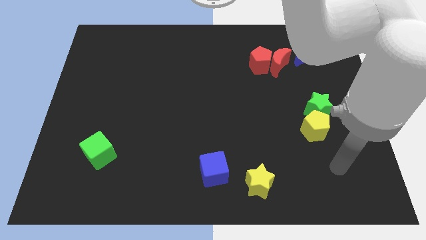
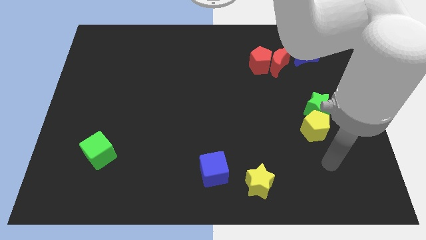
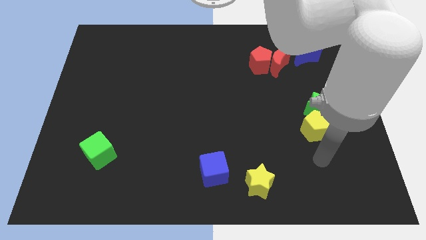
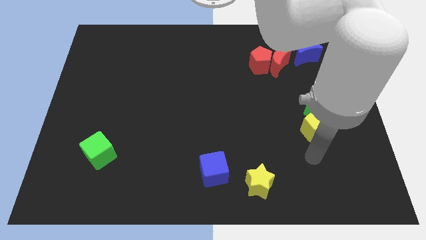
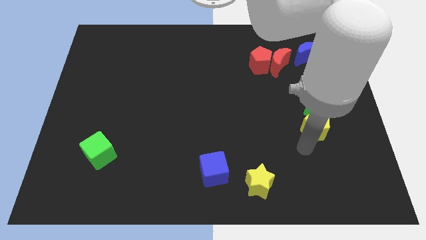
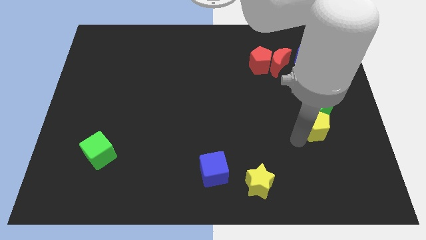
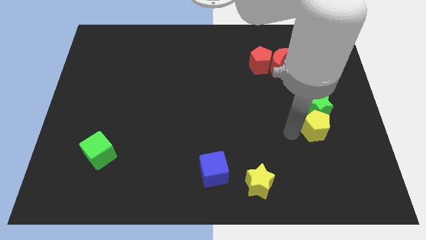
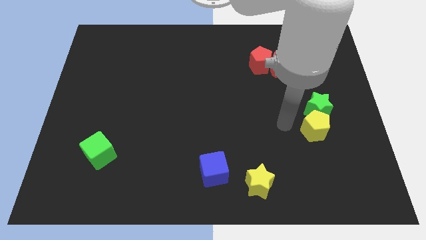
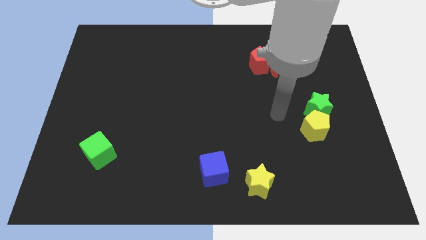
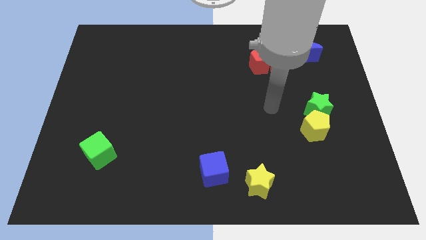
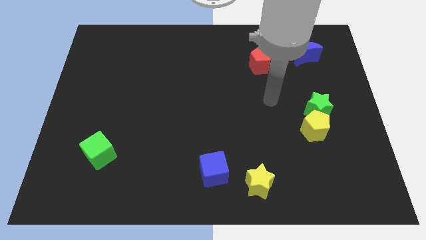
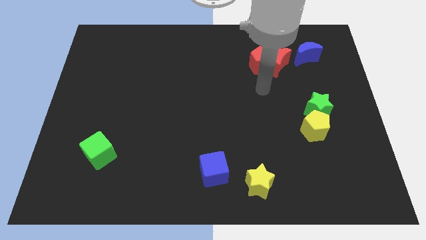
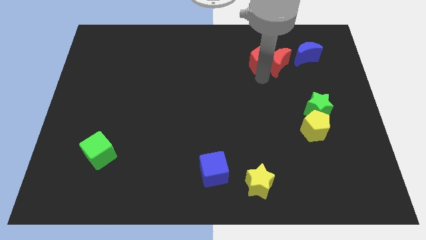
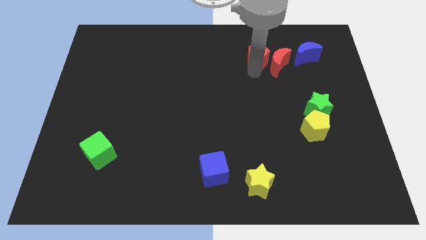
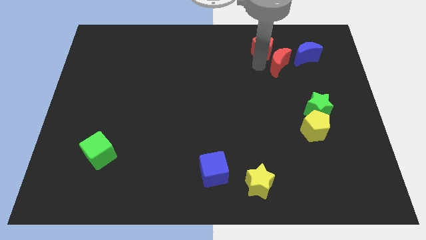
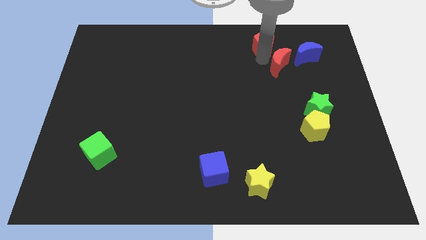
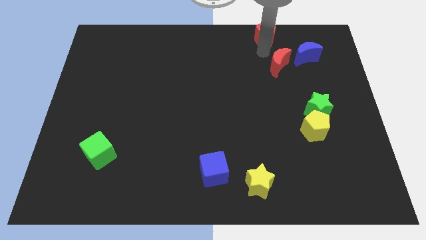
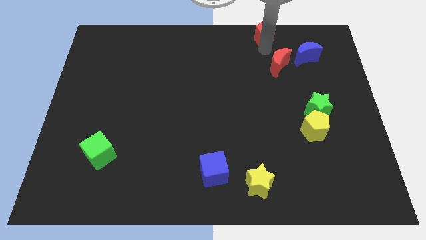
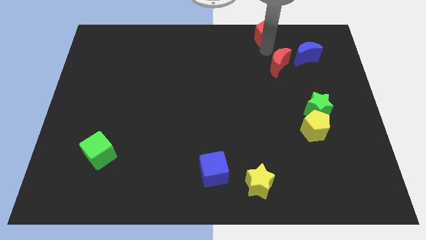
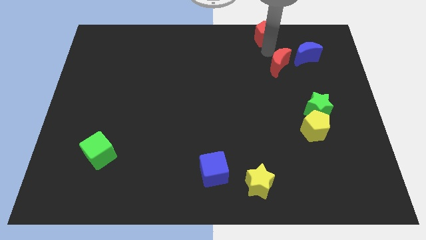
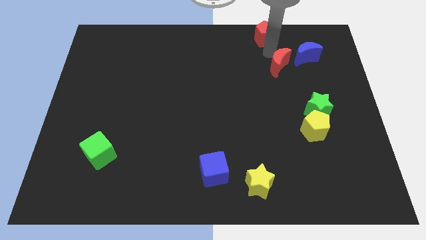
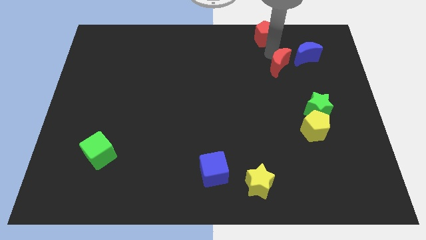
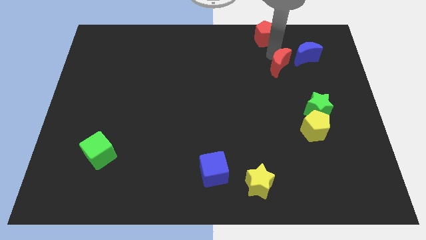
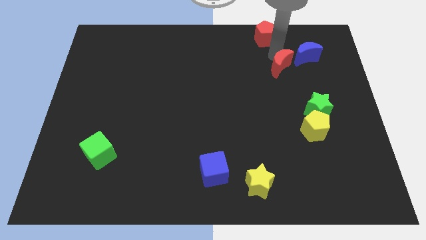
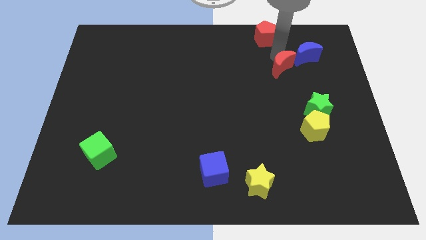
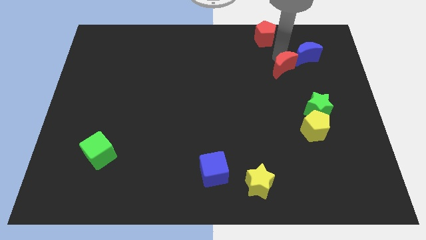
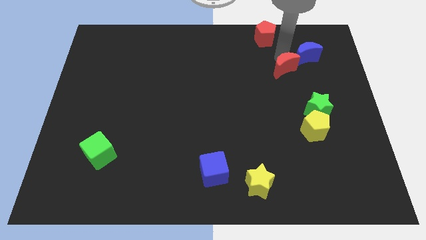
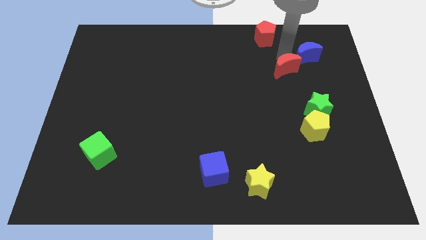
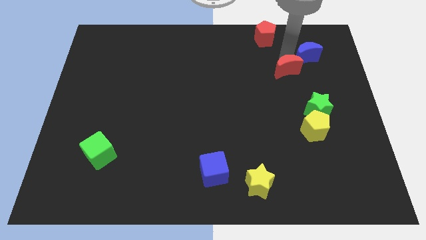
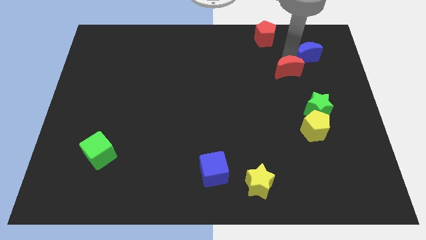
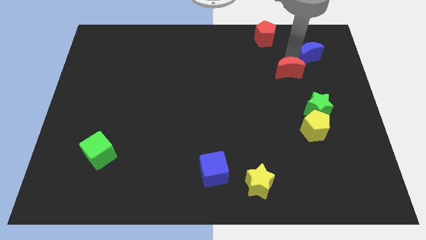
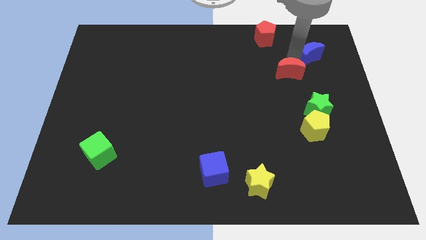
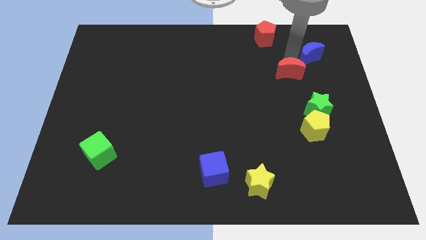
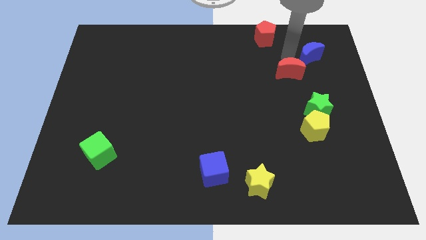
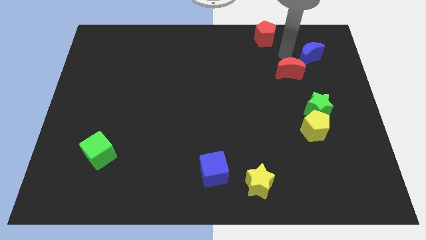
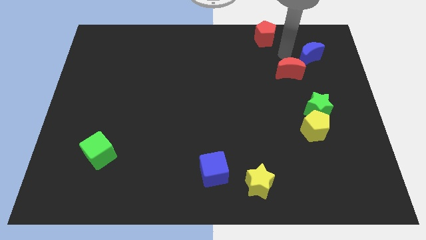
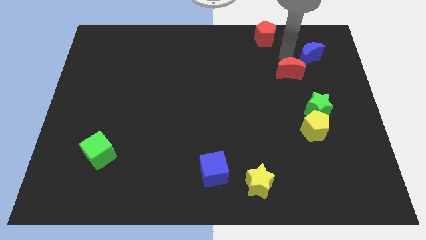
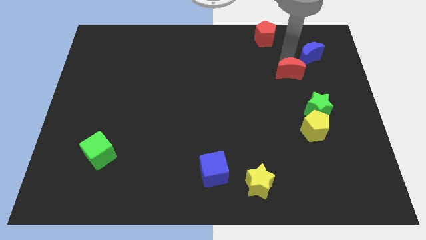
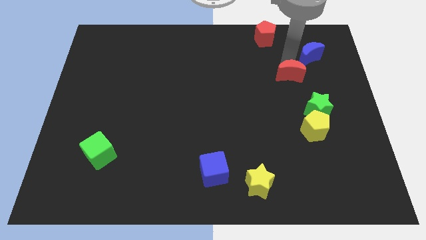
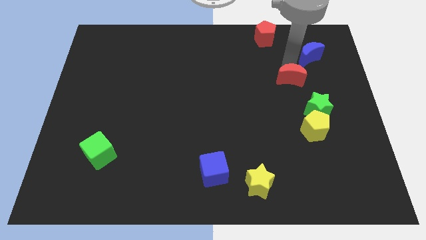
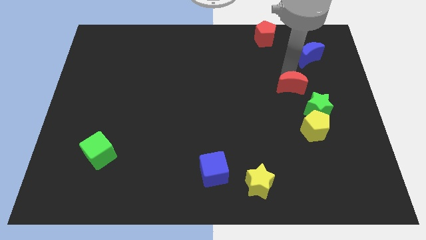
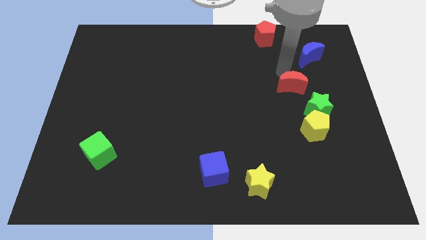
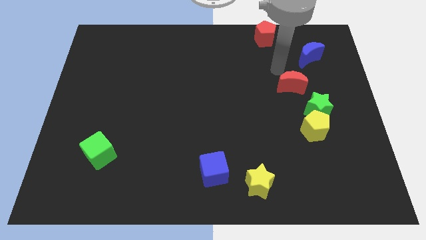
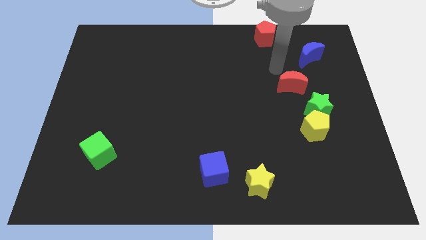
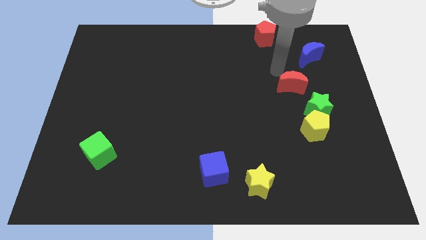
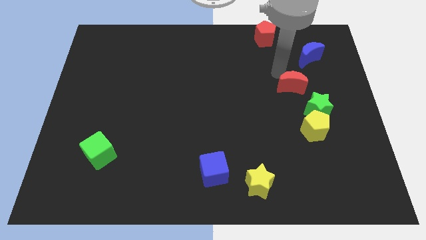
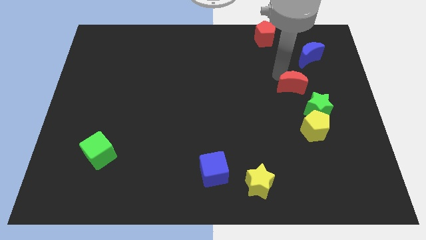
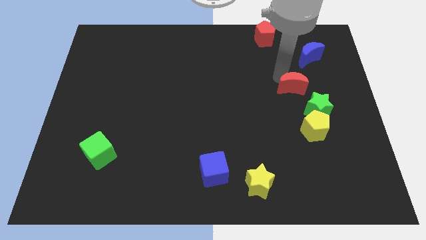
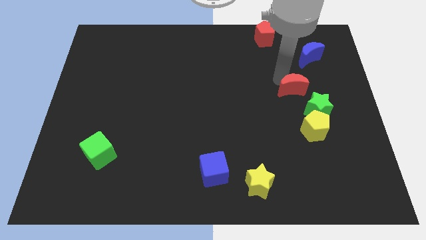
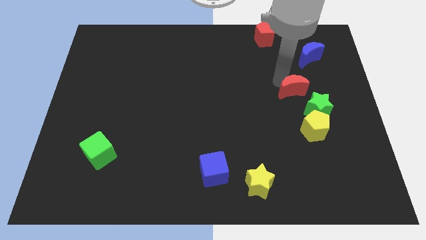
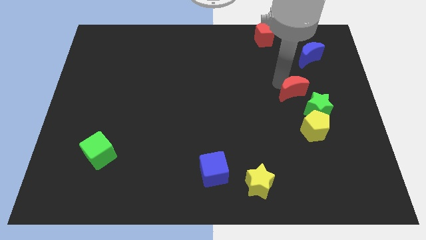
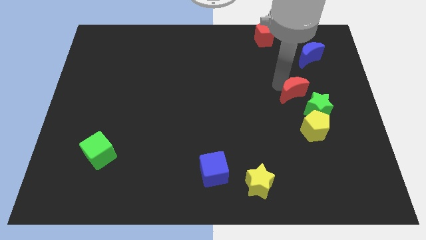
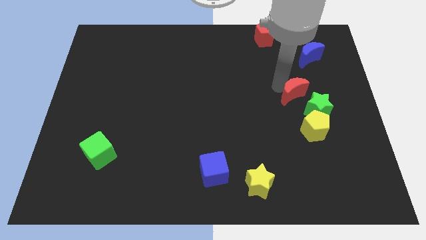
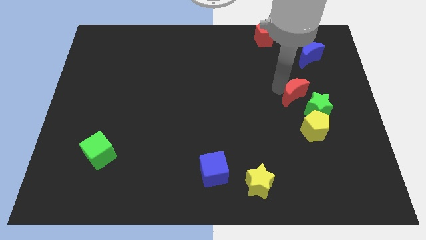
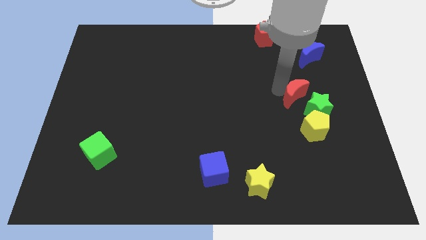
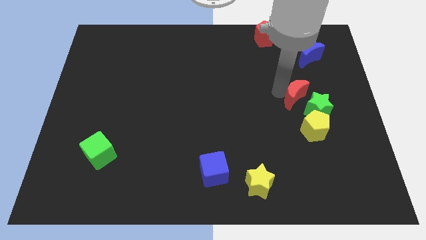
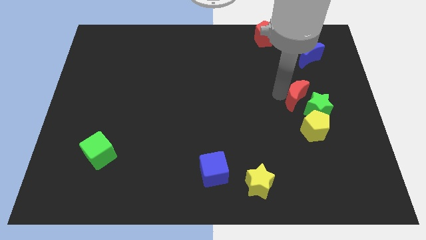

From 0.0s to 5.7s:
move the red moon towards the green star

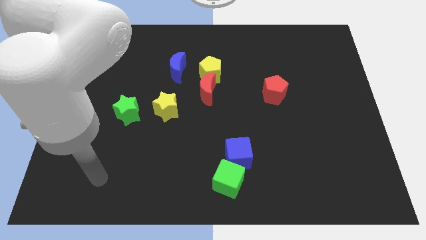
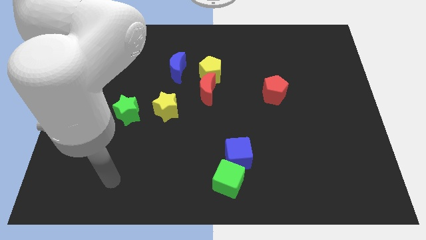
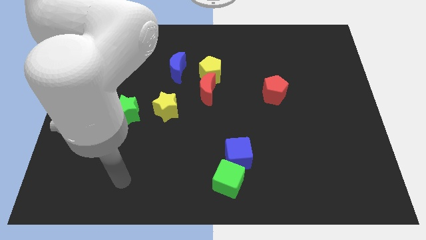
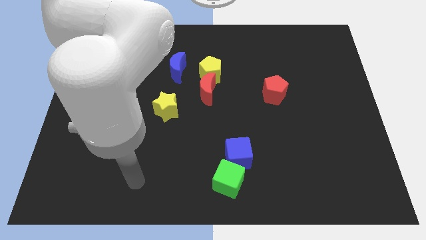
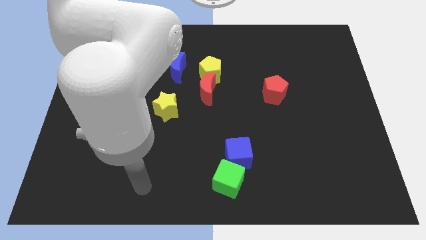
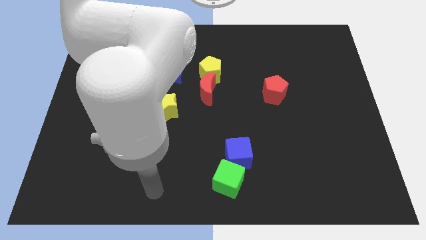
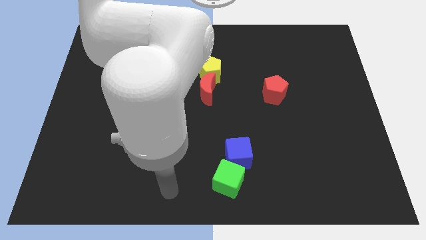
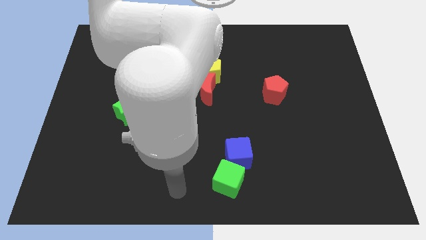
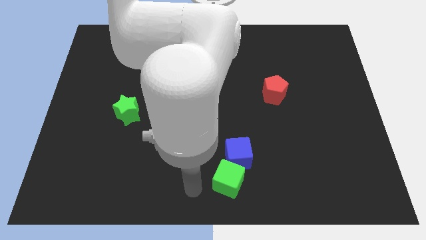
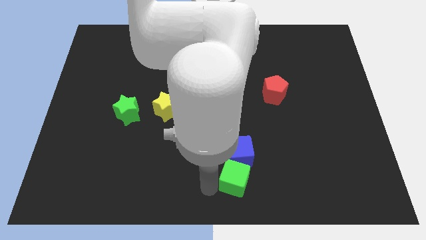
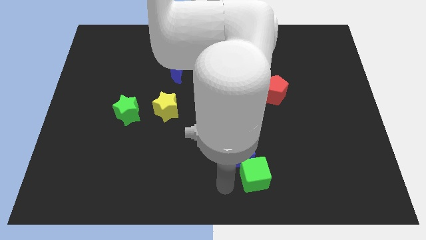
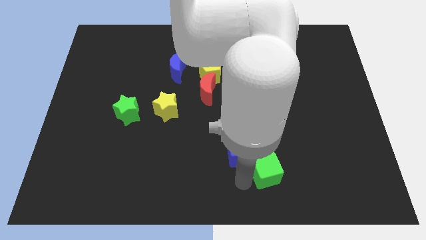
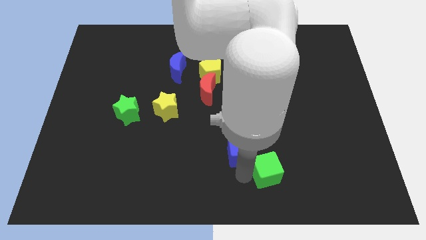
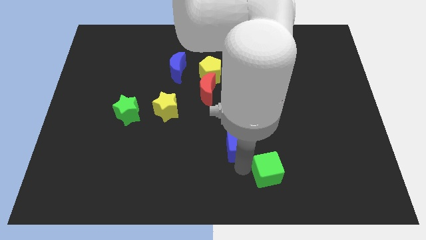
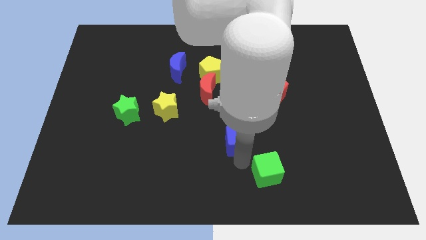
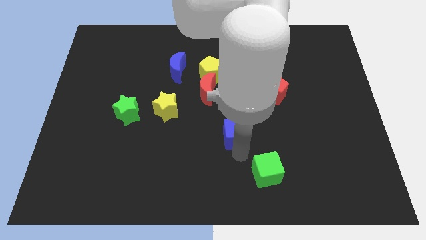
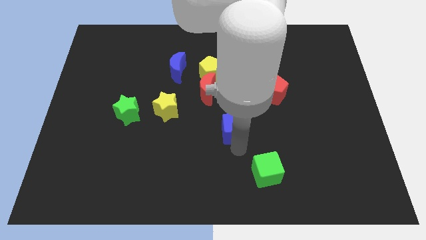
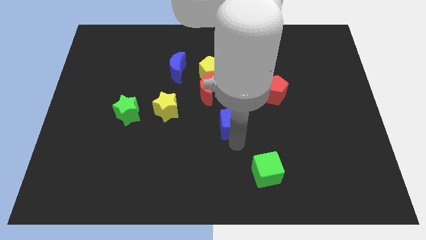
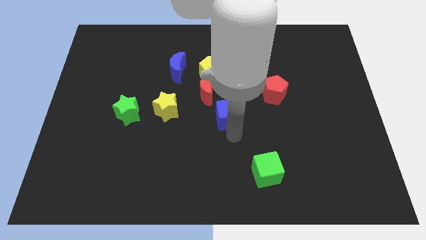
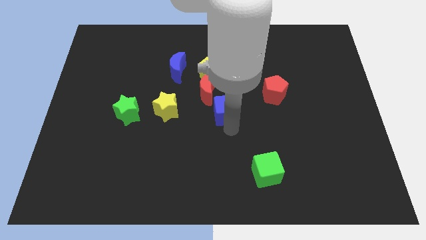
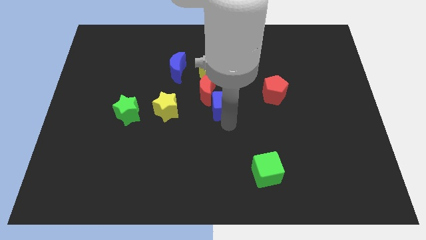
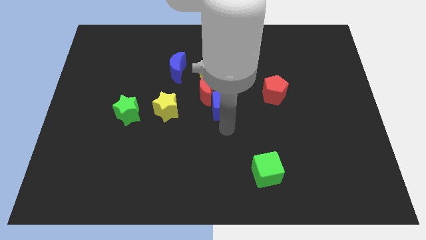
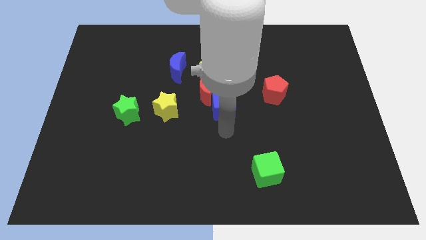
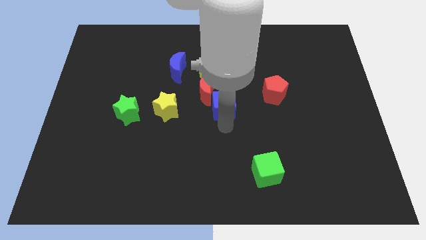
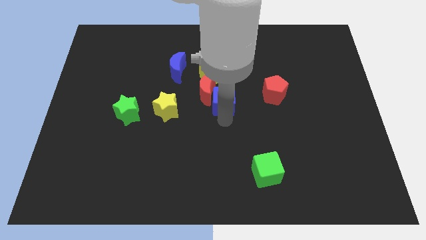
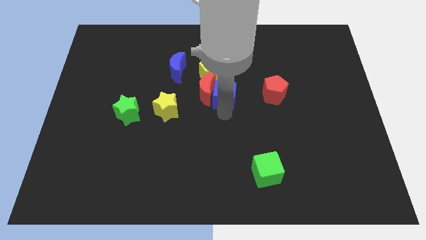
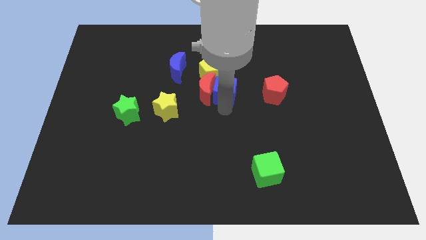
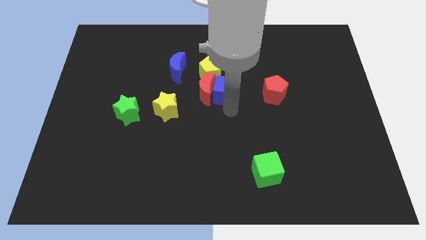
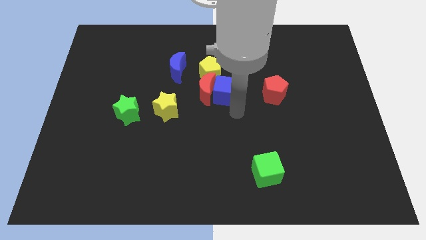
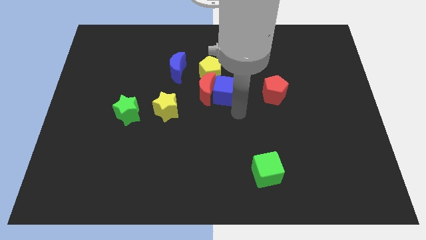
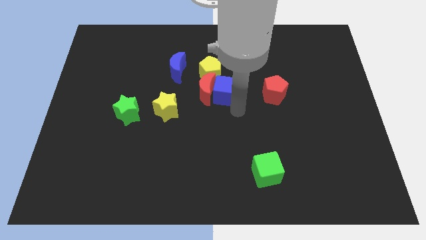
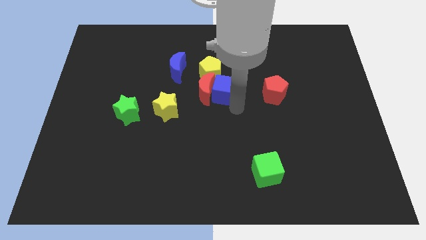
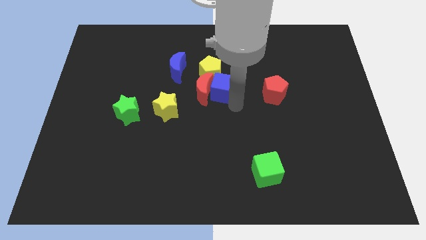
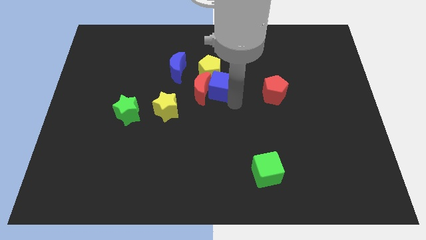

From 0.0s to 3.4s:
move the blue cube close to the yellow pentagon
